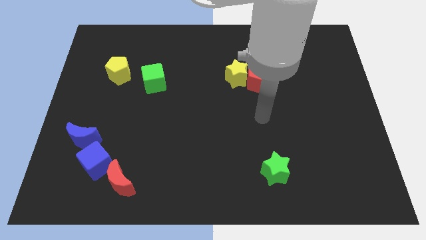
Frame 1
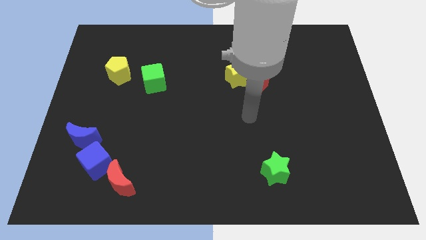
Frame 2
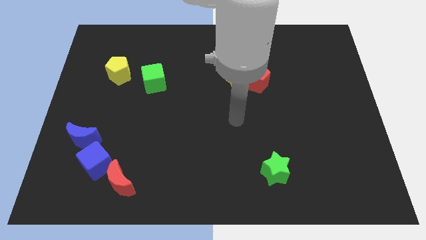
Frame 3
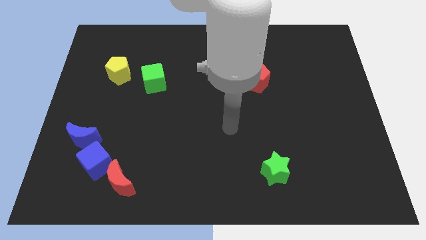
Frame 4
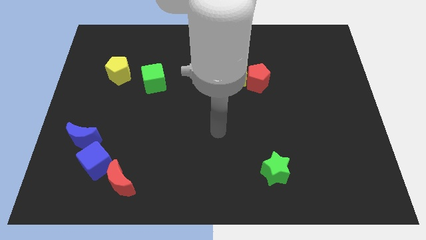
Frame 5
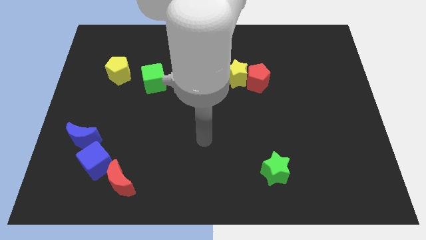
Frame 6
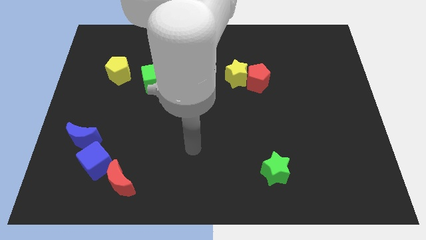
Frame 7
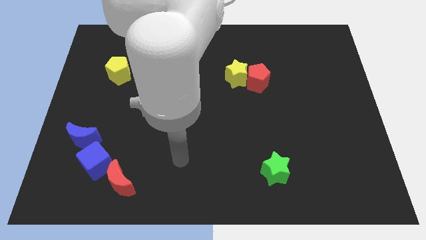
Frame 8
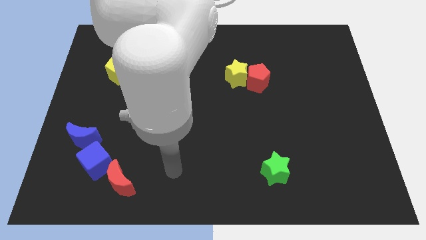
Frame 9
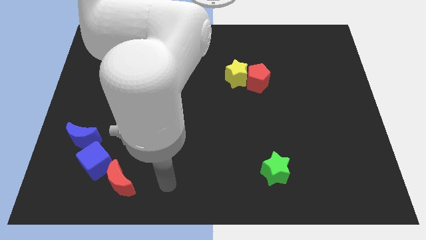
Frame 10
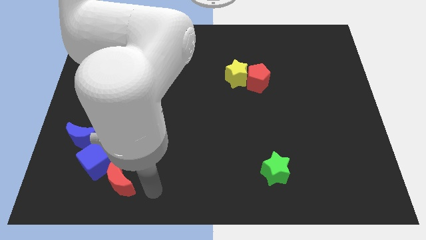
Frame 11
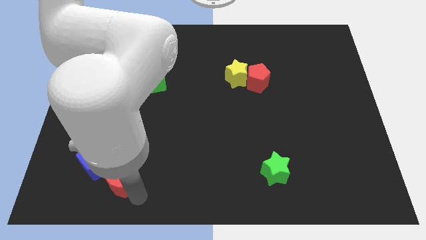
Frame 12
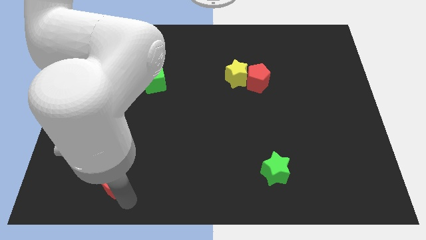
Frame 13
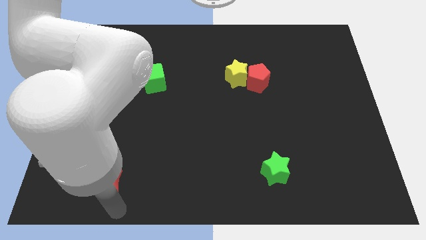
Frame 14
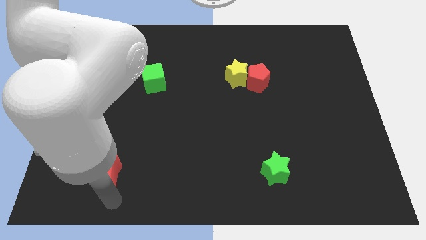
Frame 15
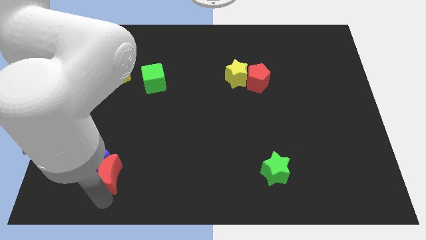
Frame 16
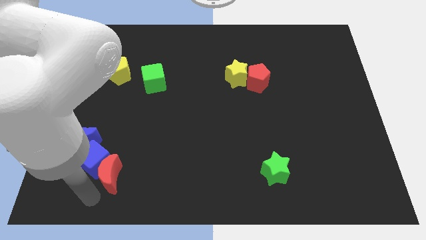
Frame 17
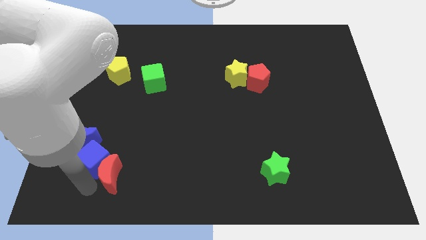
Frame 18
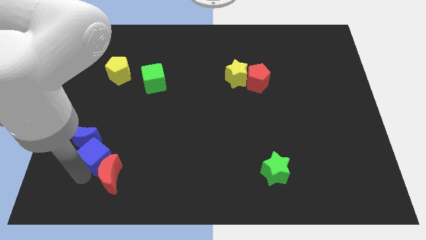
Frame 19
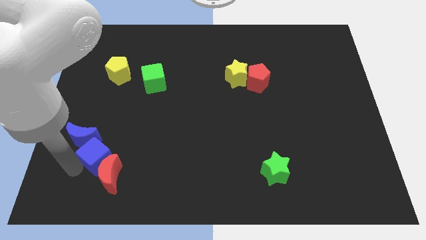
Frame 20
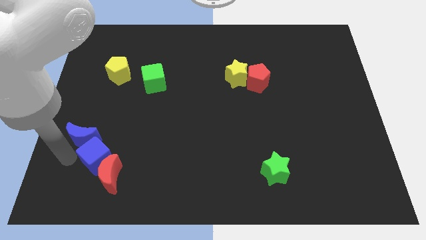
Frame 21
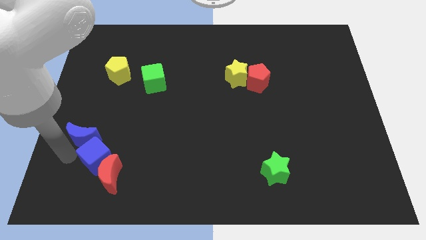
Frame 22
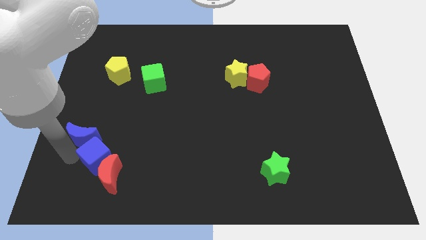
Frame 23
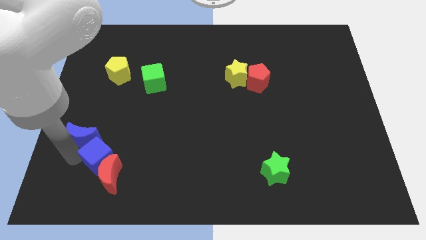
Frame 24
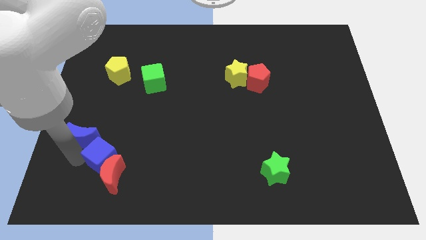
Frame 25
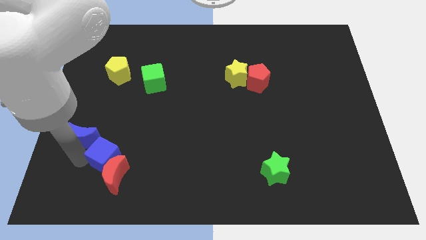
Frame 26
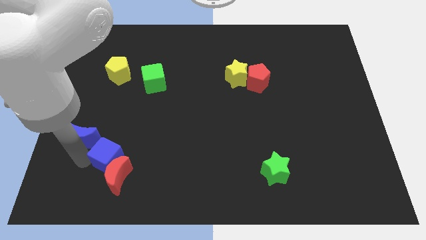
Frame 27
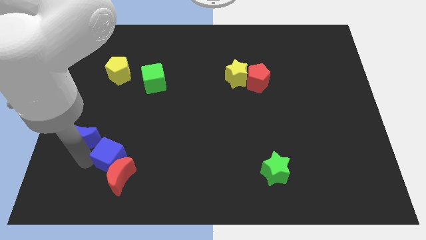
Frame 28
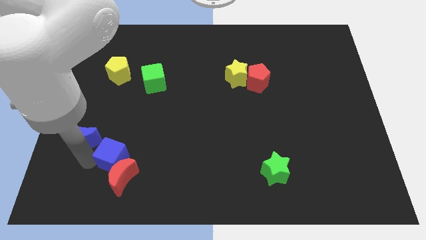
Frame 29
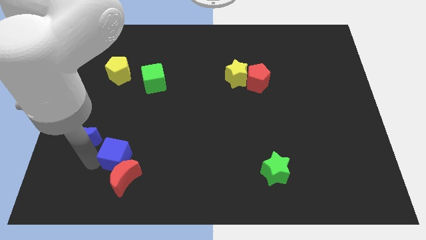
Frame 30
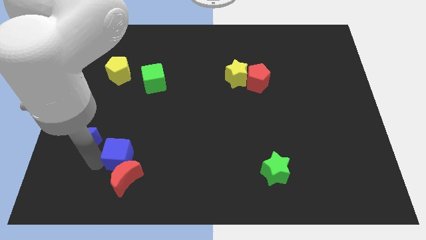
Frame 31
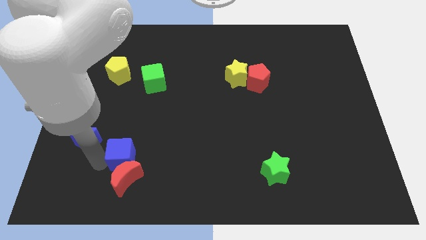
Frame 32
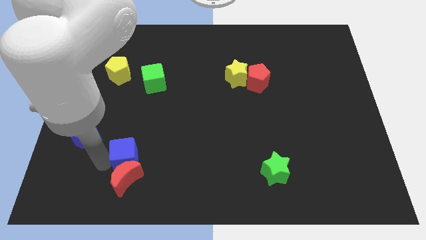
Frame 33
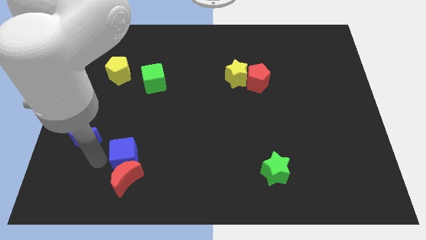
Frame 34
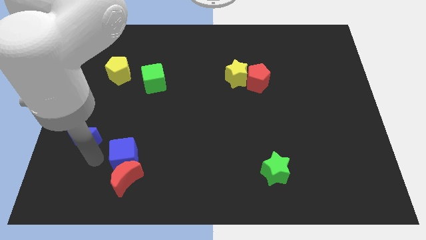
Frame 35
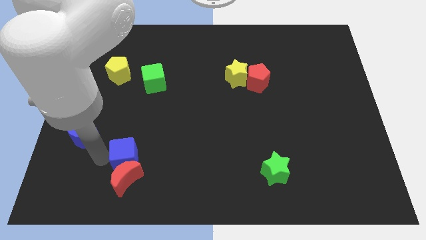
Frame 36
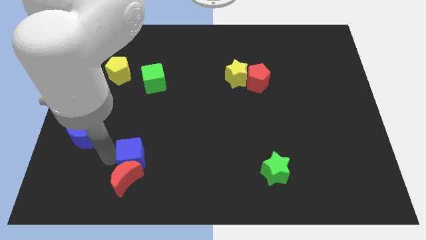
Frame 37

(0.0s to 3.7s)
push the blue cube to the right slightly

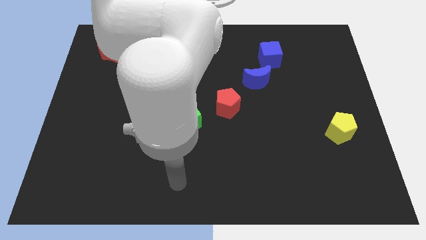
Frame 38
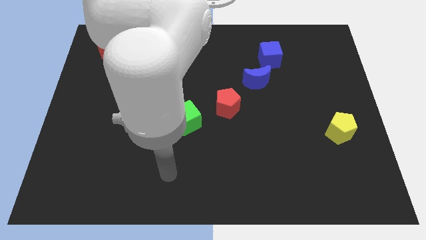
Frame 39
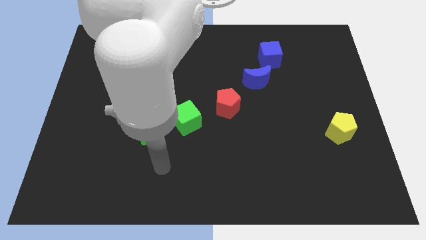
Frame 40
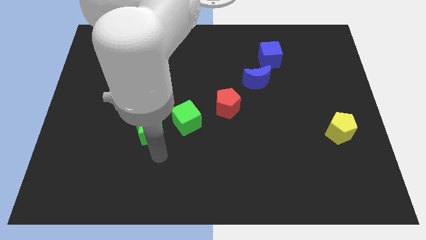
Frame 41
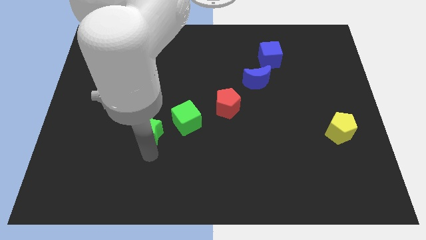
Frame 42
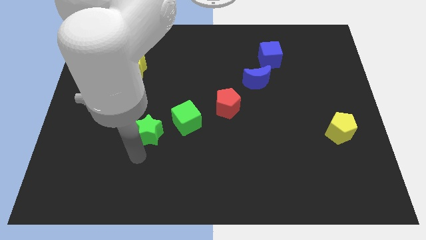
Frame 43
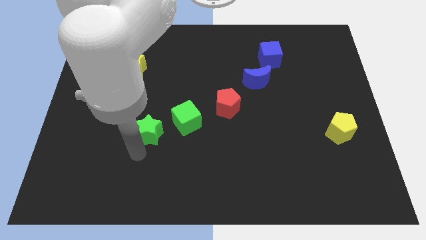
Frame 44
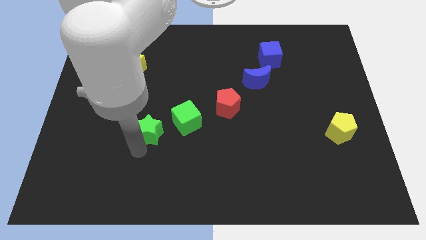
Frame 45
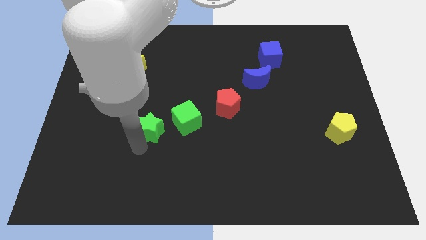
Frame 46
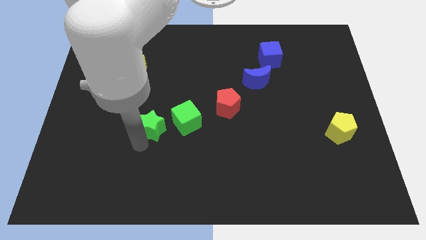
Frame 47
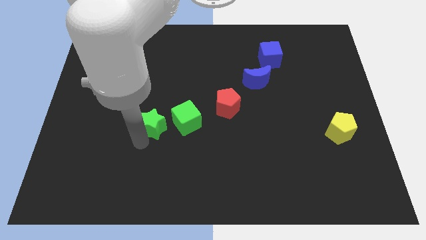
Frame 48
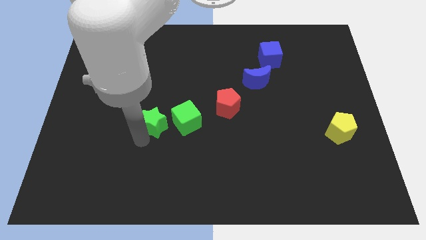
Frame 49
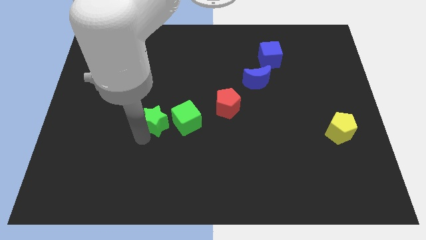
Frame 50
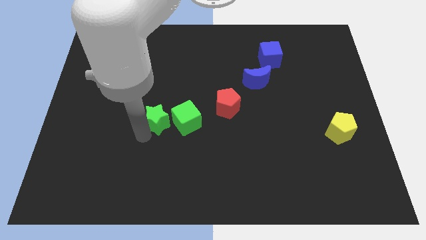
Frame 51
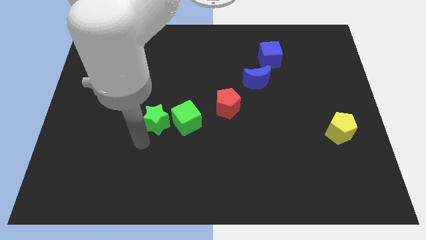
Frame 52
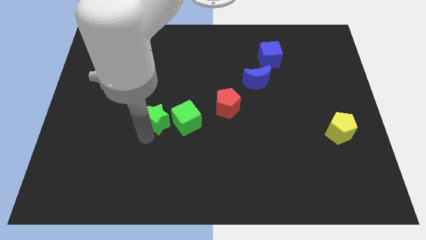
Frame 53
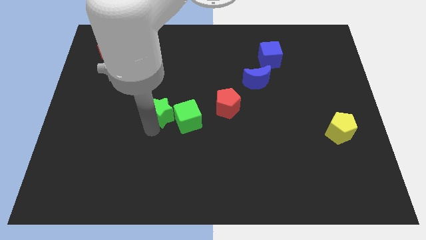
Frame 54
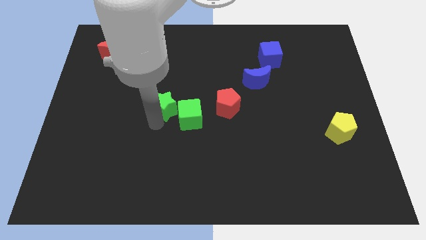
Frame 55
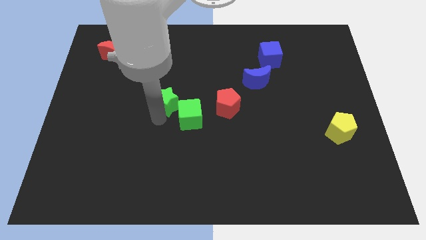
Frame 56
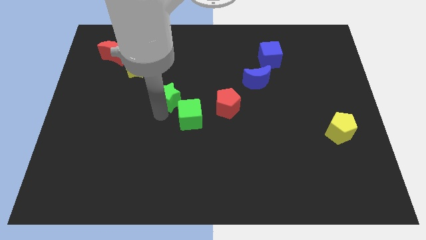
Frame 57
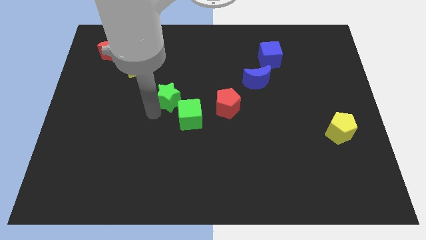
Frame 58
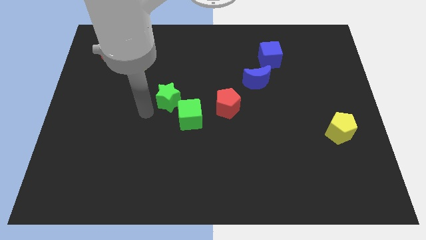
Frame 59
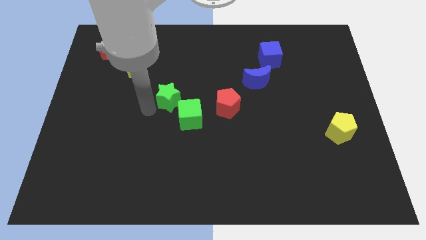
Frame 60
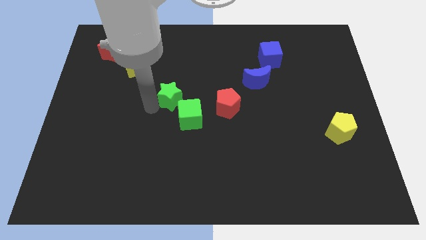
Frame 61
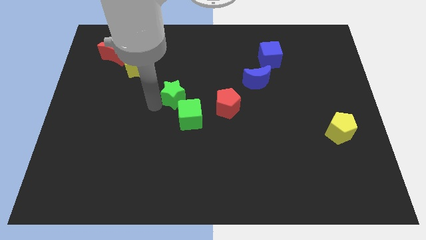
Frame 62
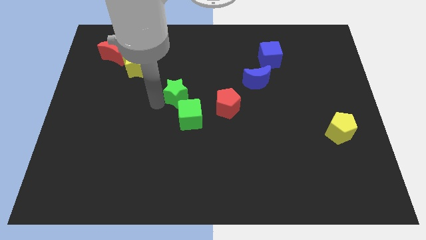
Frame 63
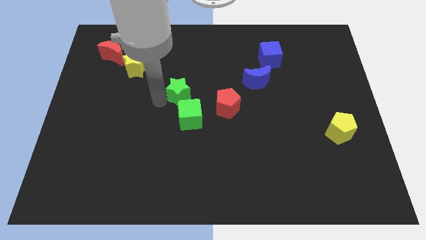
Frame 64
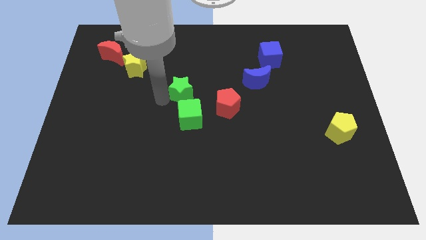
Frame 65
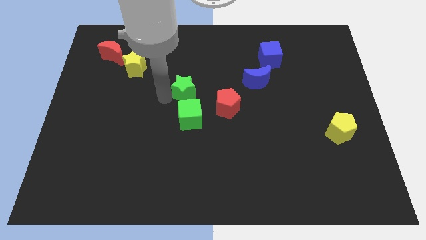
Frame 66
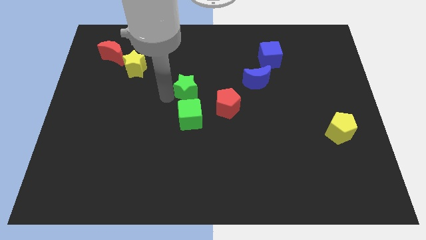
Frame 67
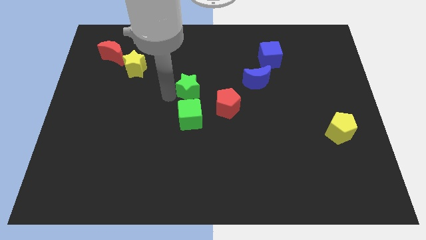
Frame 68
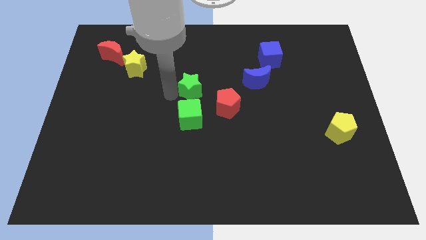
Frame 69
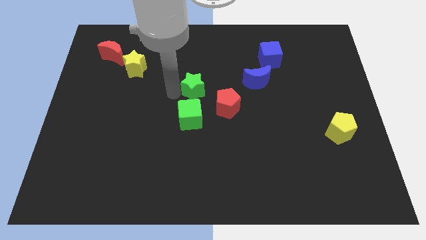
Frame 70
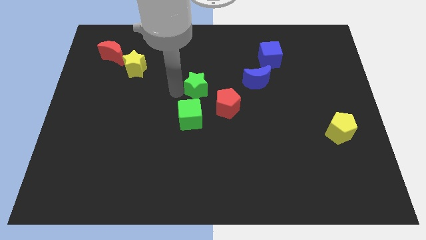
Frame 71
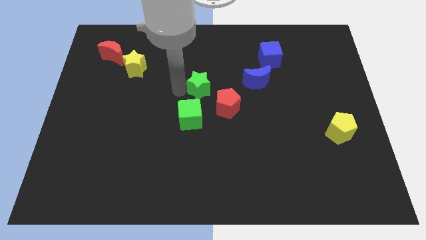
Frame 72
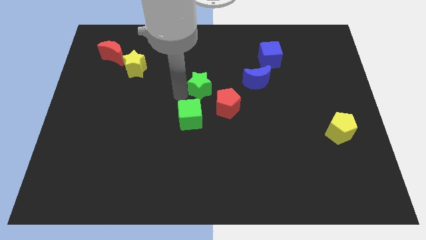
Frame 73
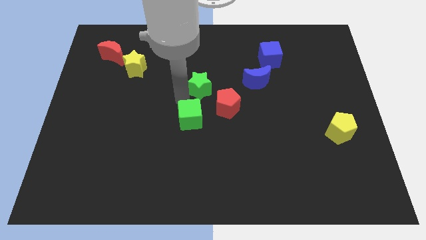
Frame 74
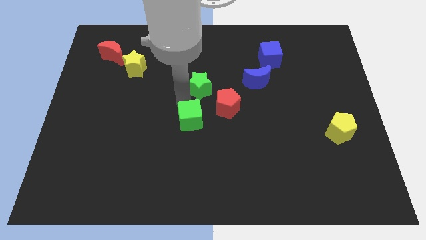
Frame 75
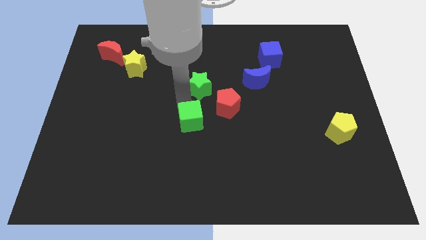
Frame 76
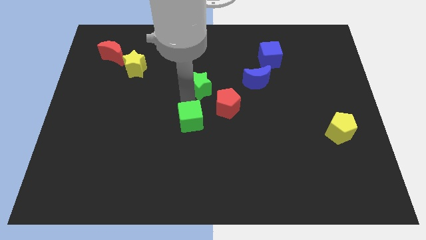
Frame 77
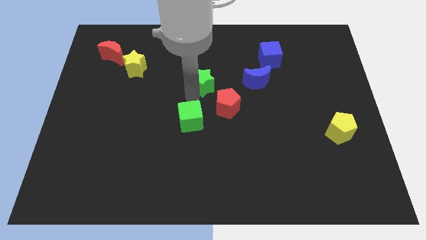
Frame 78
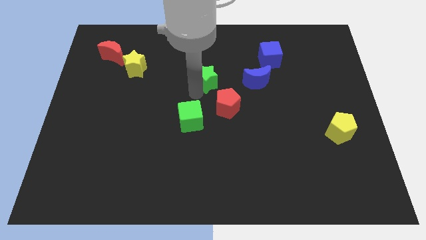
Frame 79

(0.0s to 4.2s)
push the green star upwards and then to the right

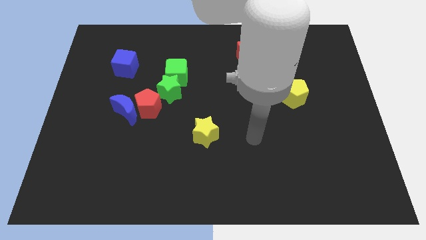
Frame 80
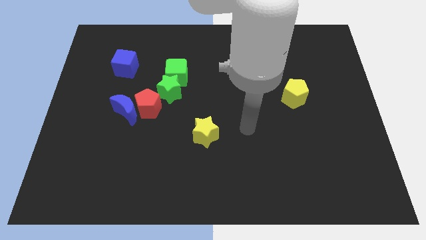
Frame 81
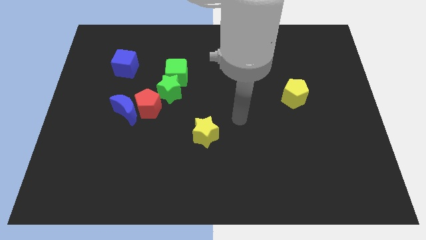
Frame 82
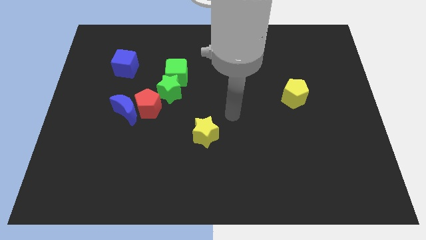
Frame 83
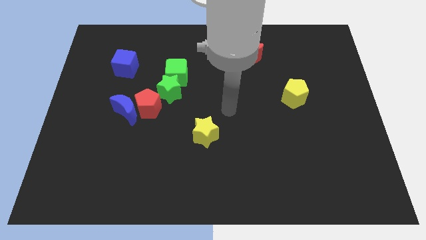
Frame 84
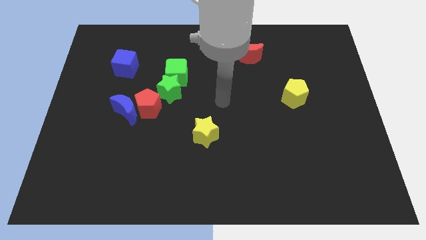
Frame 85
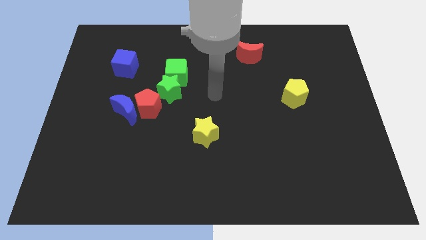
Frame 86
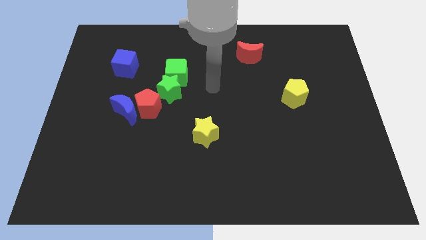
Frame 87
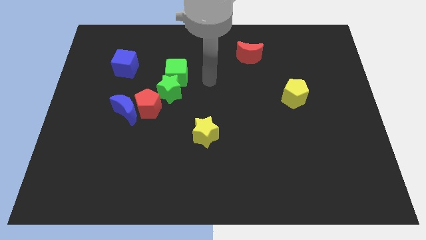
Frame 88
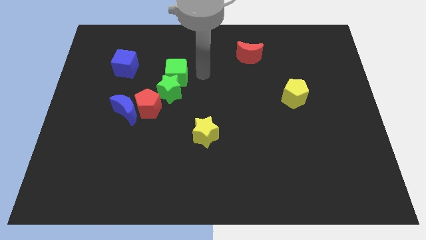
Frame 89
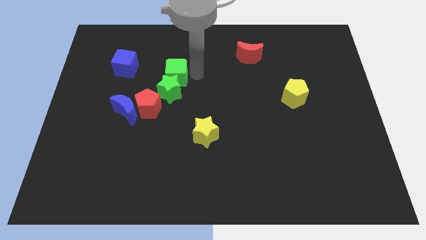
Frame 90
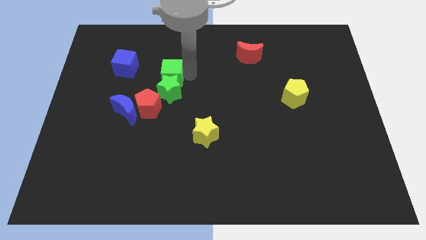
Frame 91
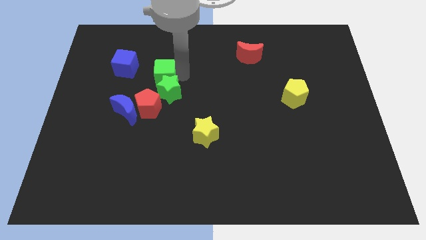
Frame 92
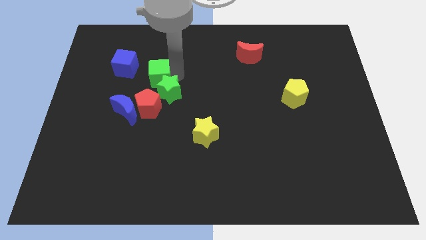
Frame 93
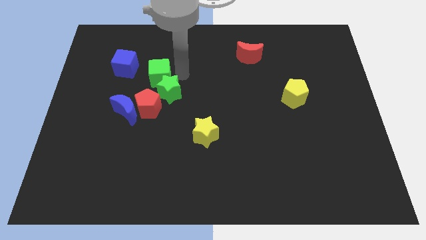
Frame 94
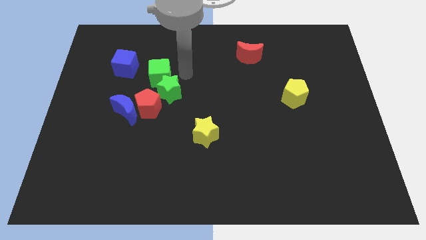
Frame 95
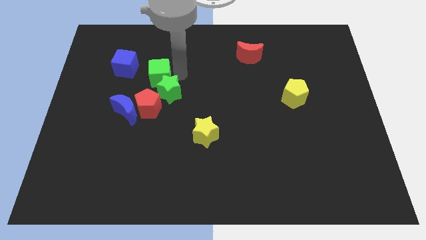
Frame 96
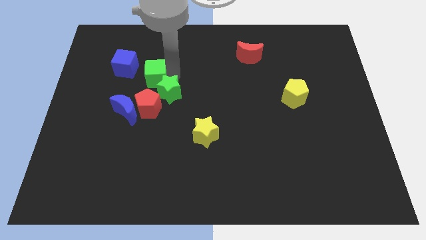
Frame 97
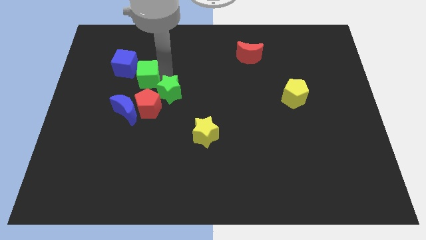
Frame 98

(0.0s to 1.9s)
slide the green cube left a little bit
